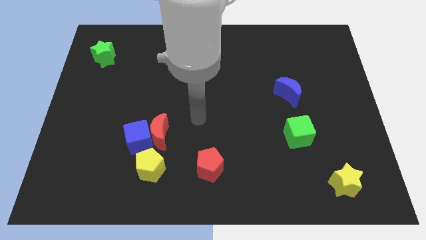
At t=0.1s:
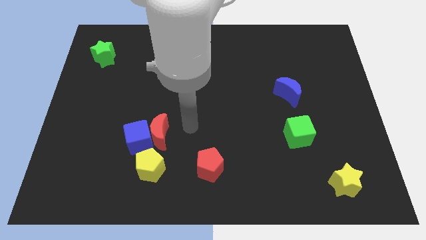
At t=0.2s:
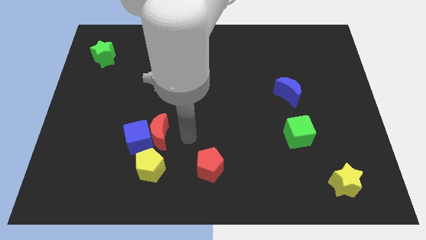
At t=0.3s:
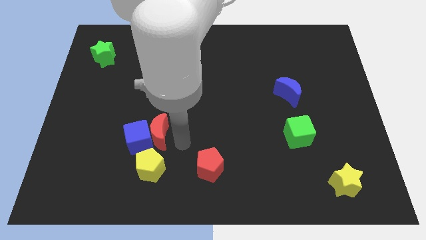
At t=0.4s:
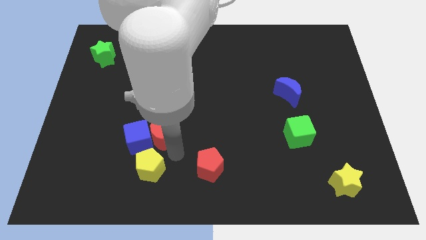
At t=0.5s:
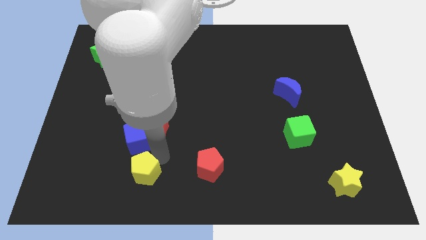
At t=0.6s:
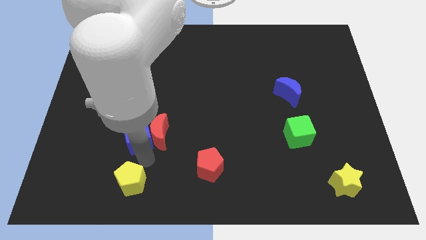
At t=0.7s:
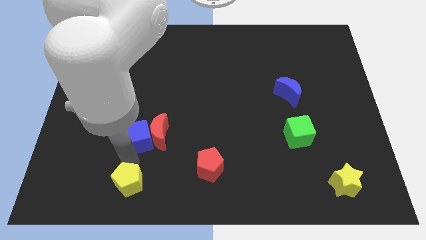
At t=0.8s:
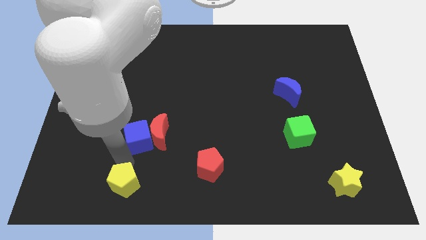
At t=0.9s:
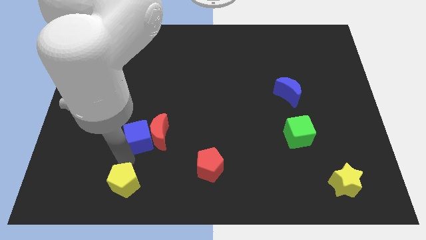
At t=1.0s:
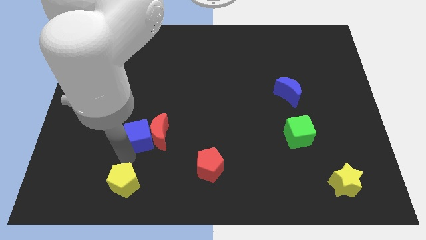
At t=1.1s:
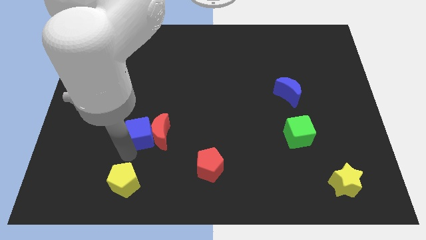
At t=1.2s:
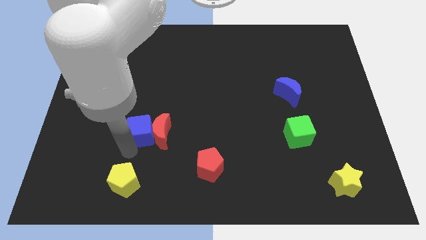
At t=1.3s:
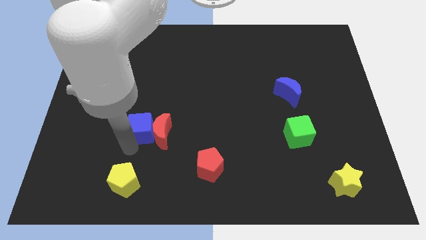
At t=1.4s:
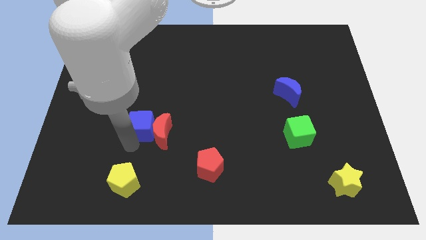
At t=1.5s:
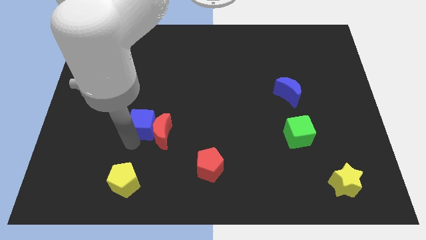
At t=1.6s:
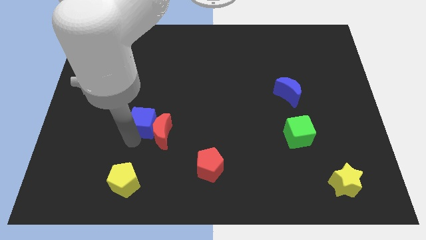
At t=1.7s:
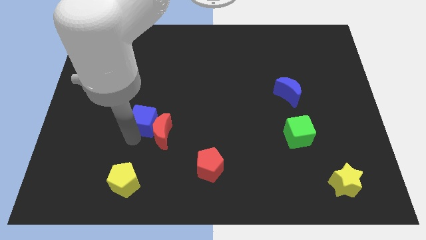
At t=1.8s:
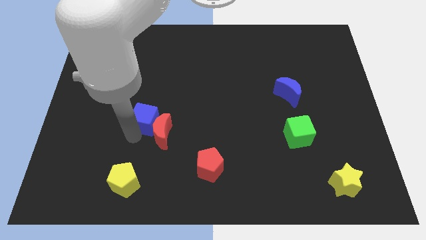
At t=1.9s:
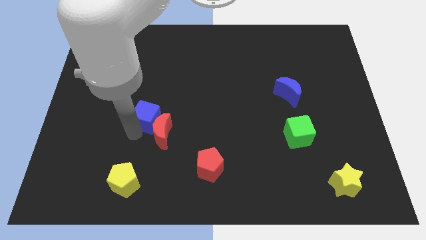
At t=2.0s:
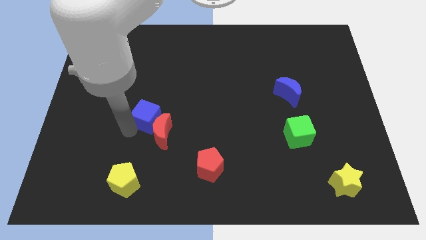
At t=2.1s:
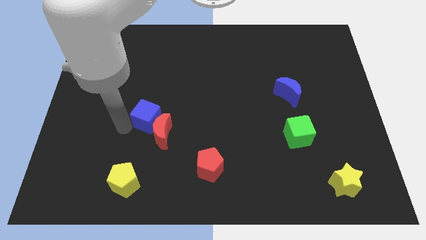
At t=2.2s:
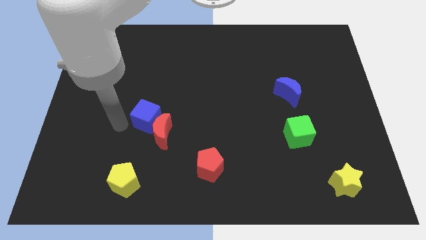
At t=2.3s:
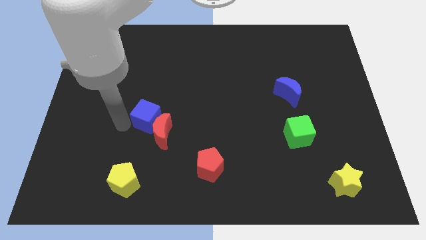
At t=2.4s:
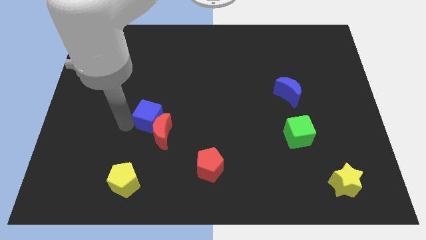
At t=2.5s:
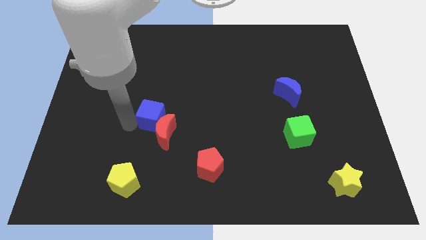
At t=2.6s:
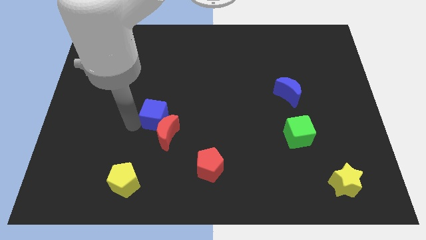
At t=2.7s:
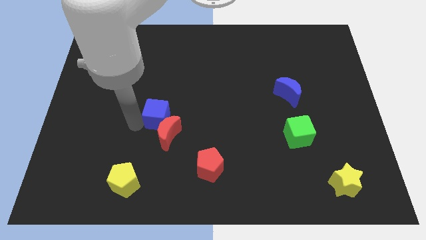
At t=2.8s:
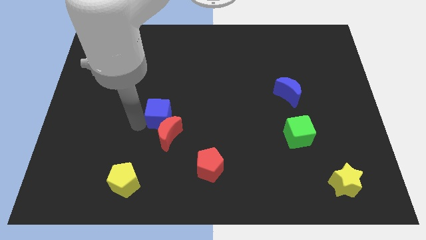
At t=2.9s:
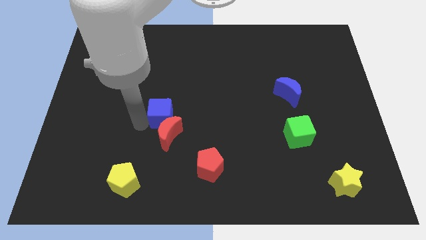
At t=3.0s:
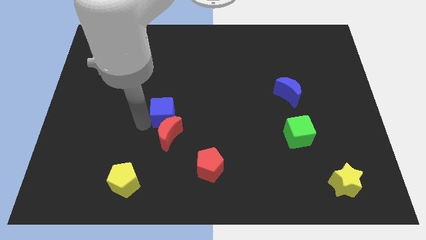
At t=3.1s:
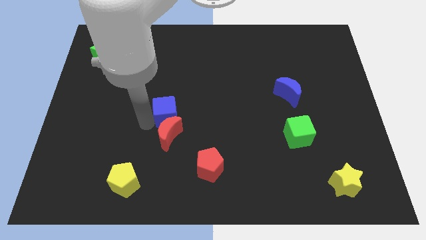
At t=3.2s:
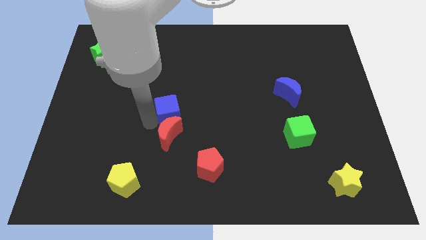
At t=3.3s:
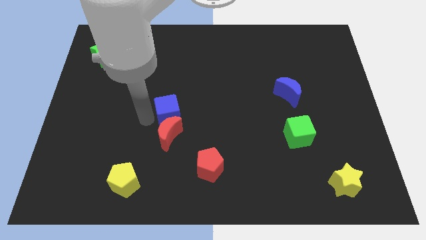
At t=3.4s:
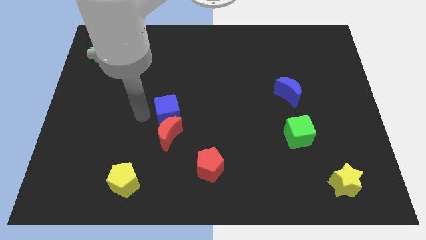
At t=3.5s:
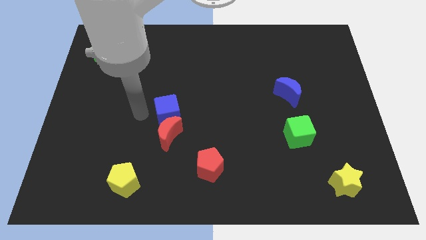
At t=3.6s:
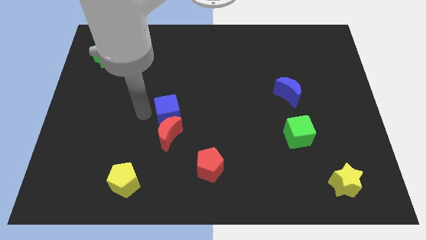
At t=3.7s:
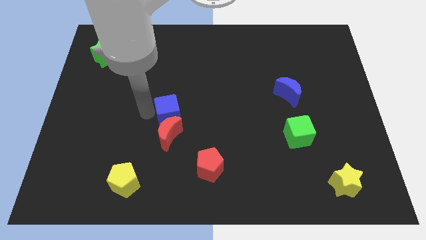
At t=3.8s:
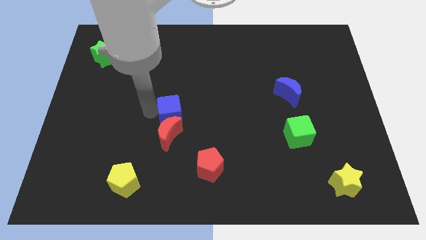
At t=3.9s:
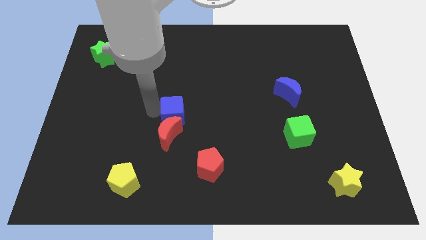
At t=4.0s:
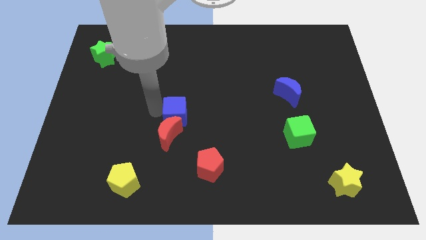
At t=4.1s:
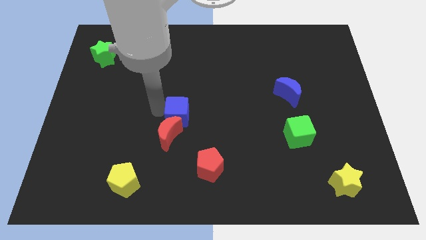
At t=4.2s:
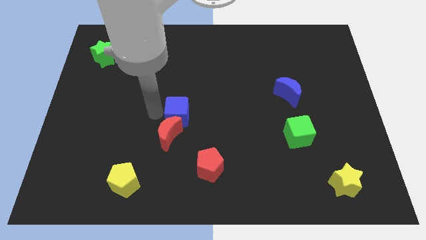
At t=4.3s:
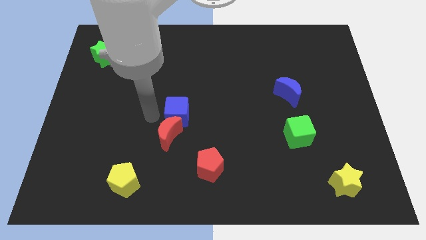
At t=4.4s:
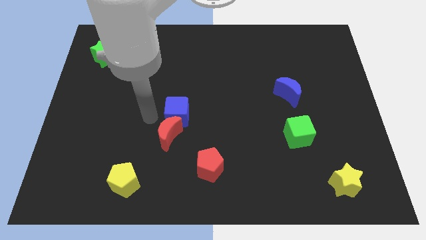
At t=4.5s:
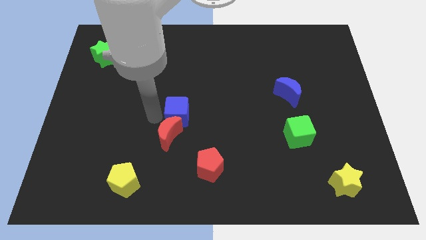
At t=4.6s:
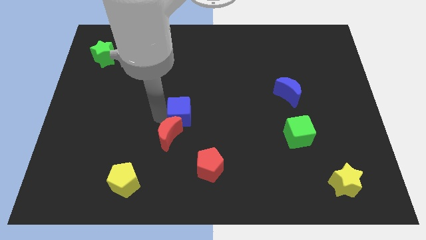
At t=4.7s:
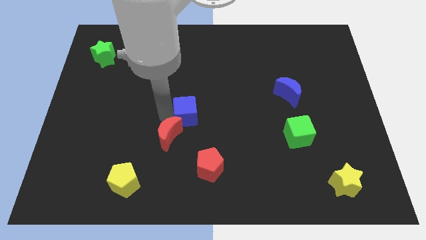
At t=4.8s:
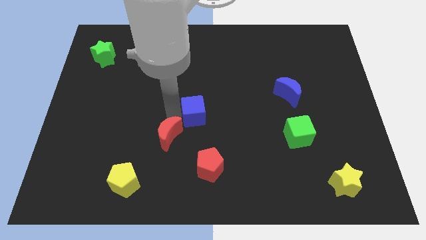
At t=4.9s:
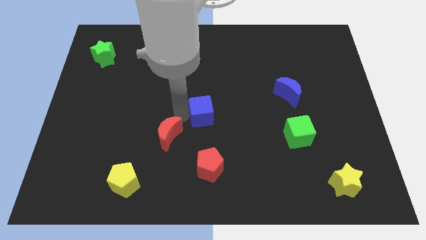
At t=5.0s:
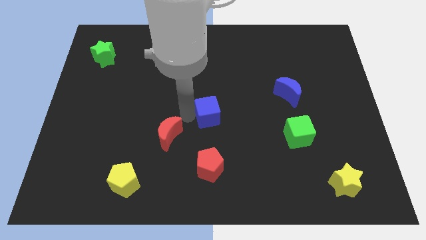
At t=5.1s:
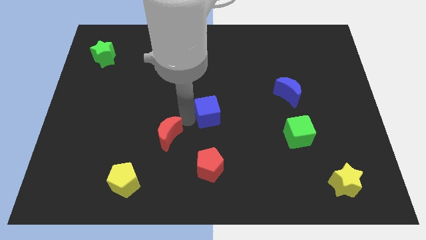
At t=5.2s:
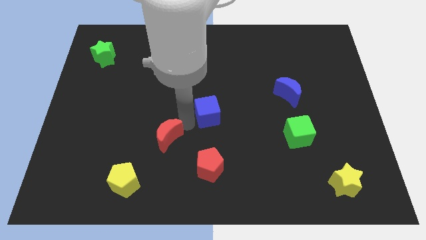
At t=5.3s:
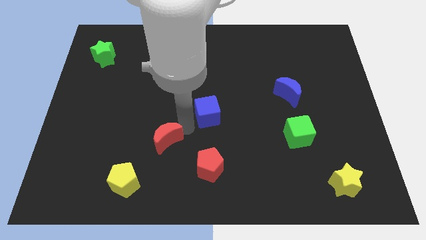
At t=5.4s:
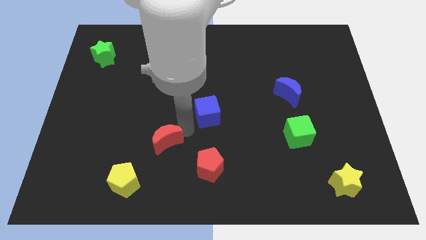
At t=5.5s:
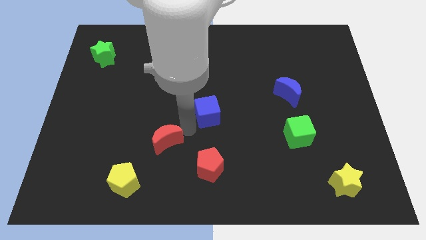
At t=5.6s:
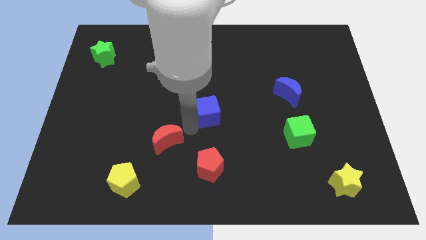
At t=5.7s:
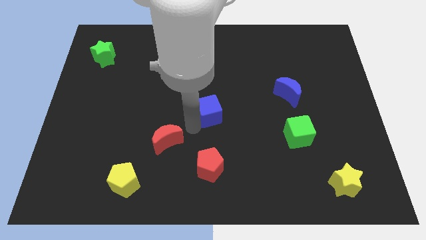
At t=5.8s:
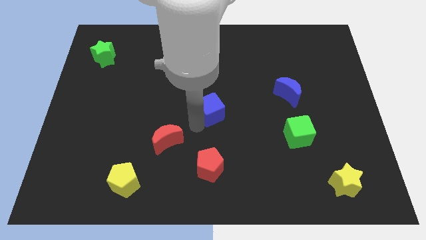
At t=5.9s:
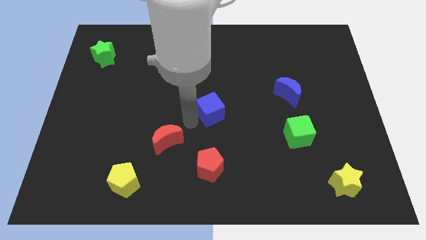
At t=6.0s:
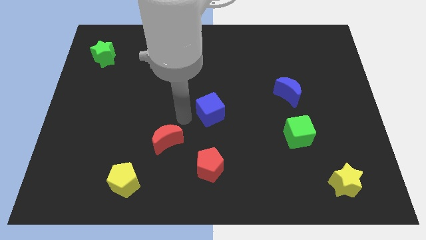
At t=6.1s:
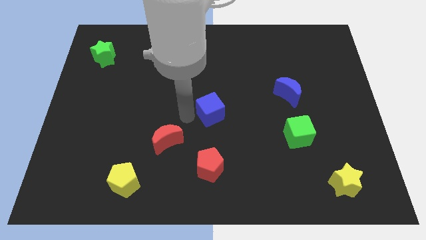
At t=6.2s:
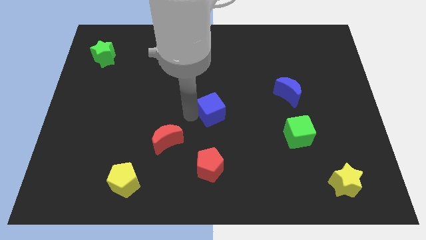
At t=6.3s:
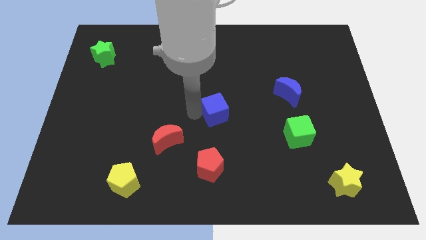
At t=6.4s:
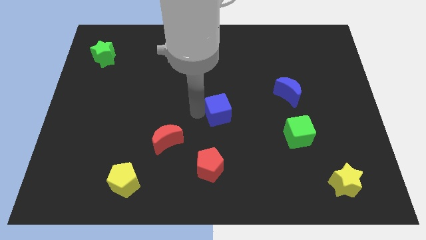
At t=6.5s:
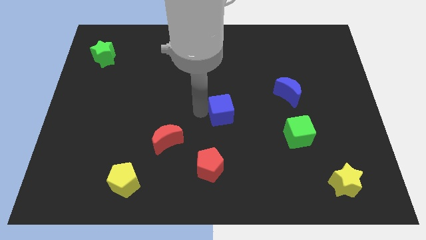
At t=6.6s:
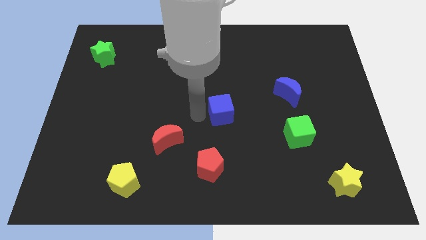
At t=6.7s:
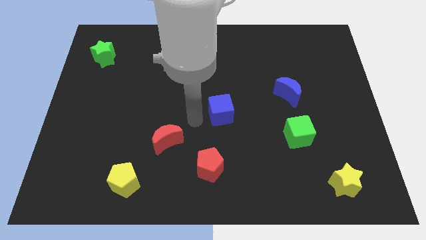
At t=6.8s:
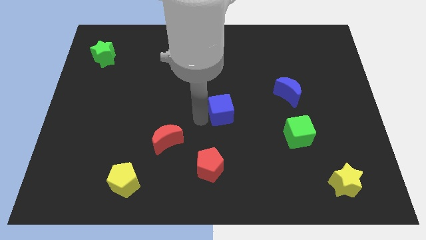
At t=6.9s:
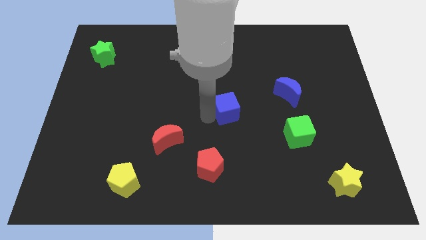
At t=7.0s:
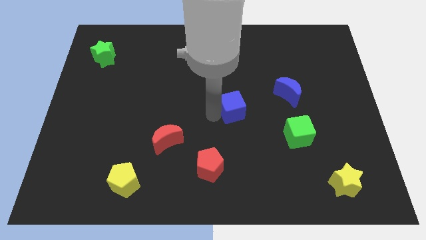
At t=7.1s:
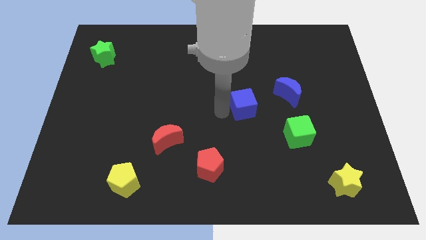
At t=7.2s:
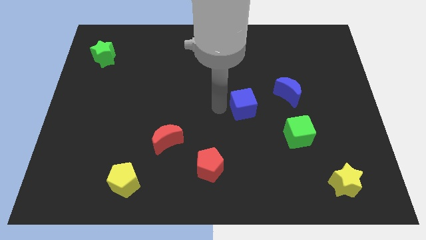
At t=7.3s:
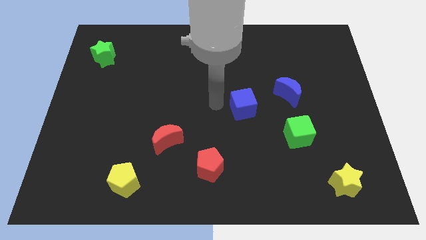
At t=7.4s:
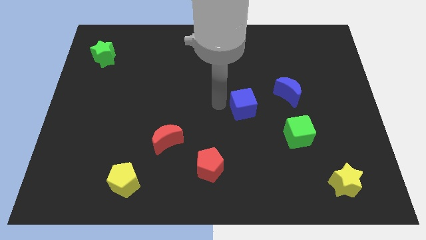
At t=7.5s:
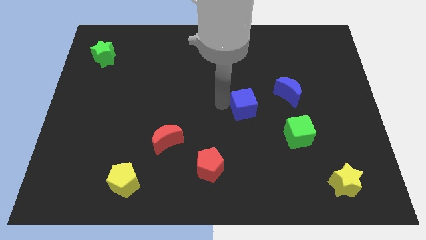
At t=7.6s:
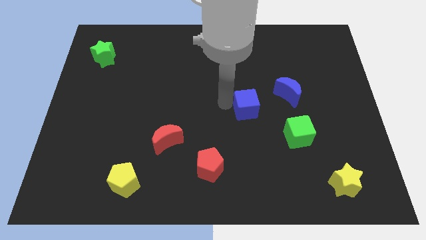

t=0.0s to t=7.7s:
slide the blue cube diagonally down and to the left of the blue moon
